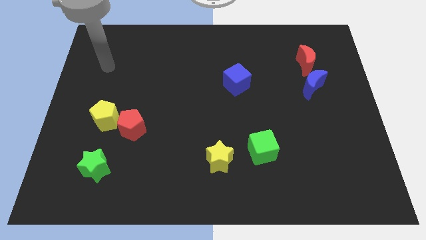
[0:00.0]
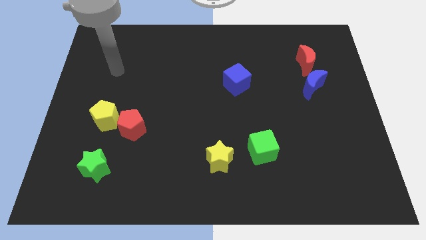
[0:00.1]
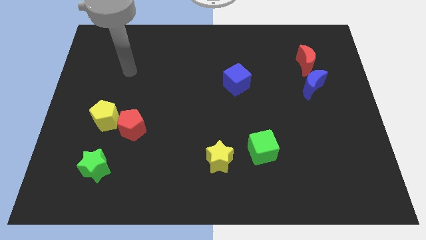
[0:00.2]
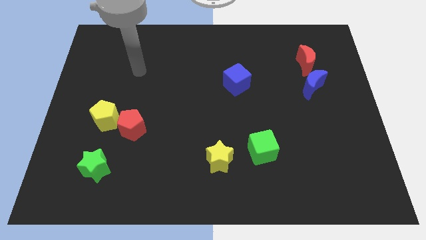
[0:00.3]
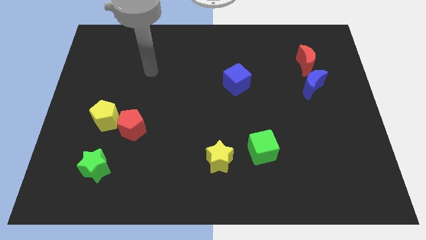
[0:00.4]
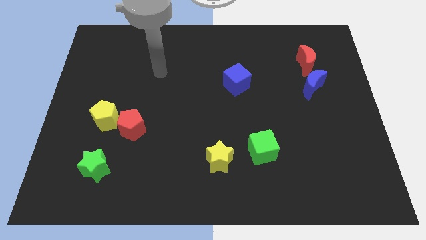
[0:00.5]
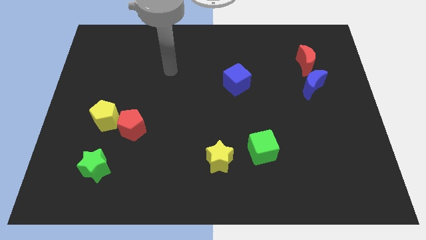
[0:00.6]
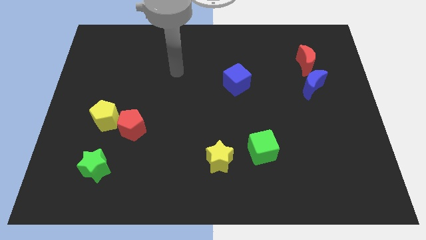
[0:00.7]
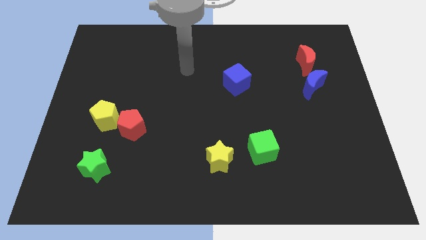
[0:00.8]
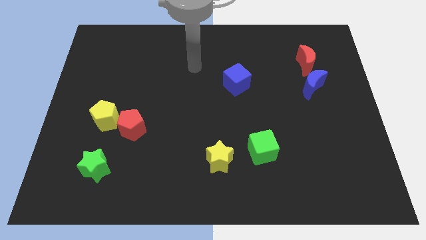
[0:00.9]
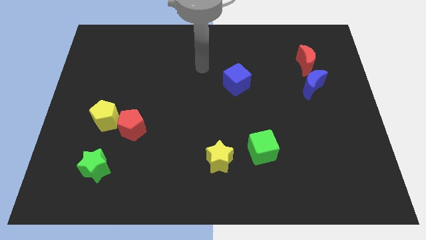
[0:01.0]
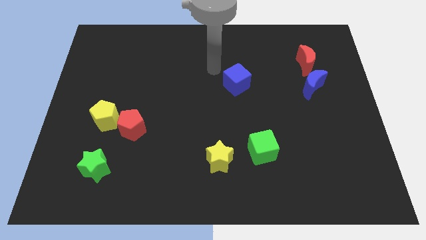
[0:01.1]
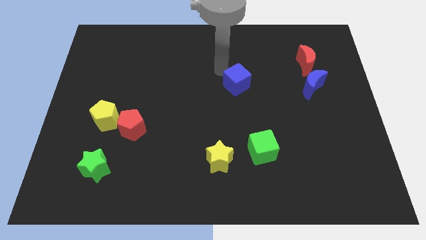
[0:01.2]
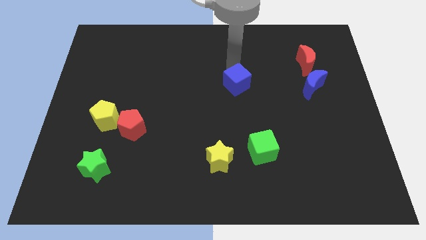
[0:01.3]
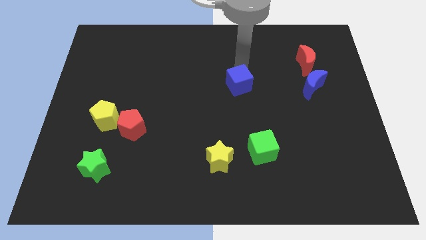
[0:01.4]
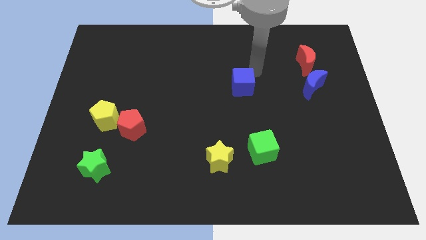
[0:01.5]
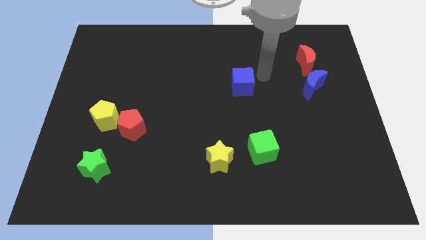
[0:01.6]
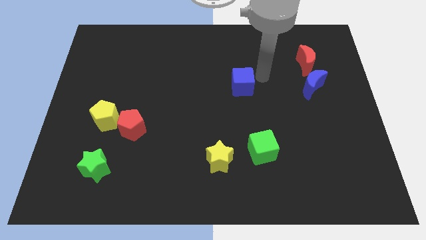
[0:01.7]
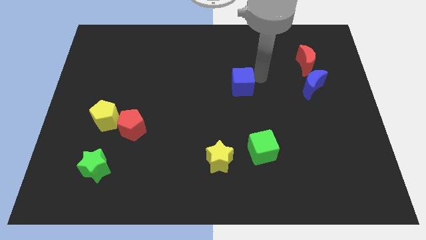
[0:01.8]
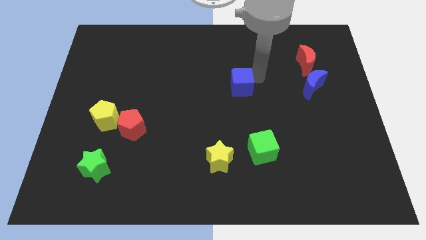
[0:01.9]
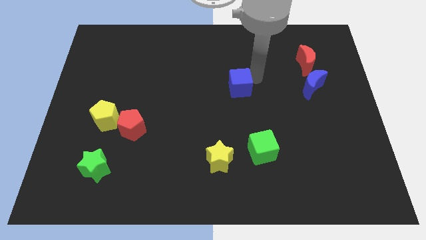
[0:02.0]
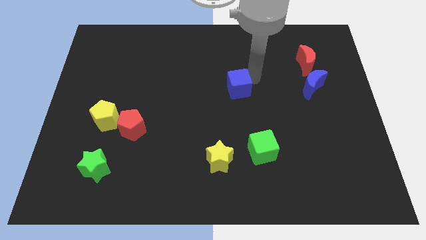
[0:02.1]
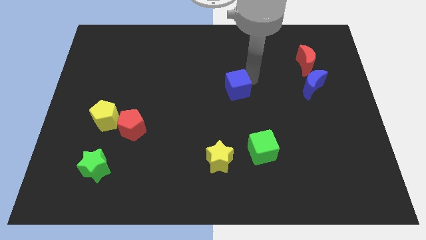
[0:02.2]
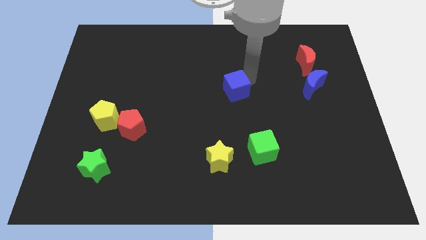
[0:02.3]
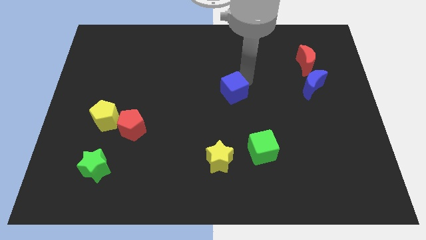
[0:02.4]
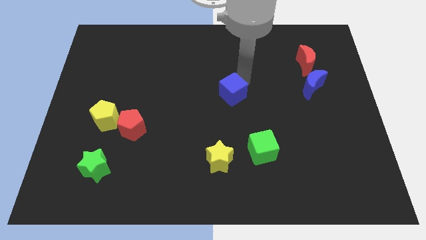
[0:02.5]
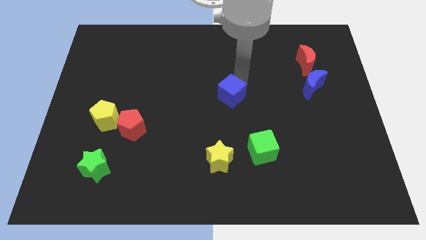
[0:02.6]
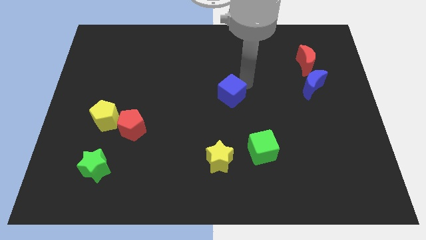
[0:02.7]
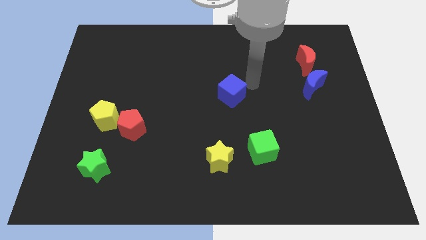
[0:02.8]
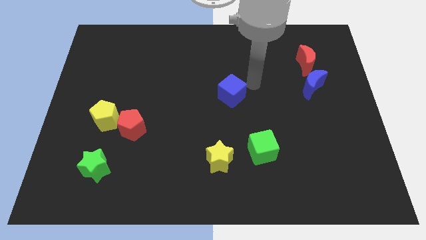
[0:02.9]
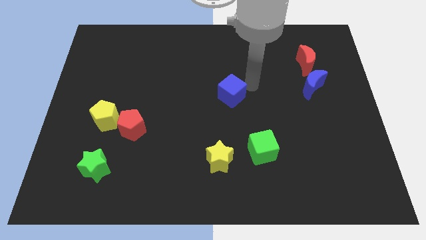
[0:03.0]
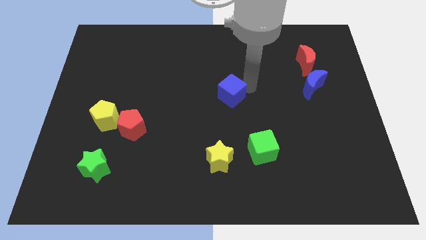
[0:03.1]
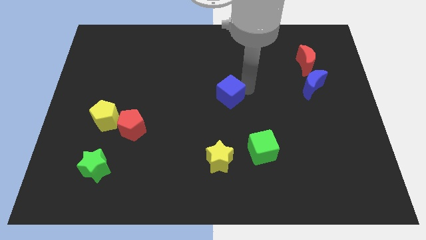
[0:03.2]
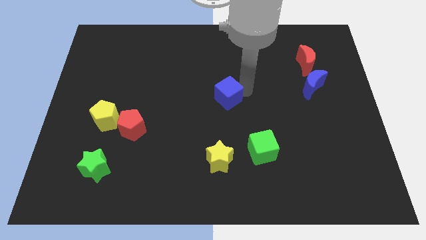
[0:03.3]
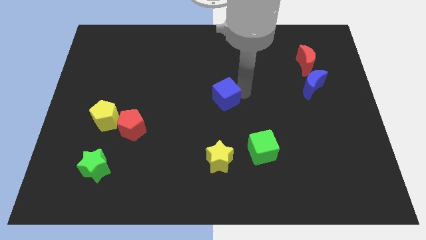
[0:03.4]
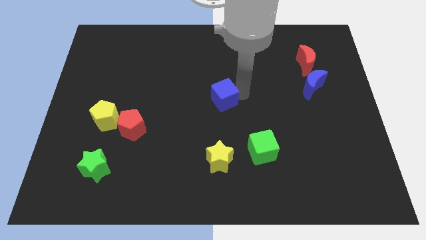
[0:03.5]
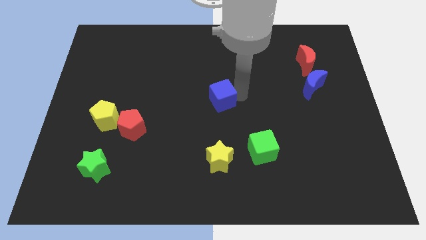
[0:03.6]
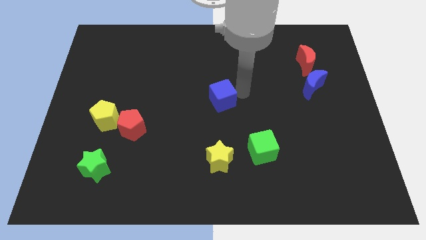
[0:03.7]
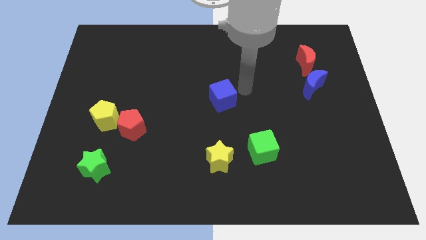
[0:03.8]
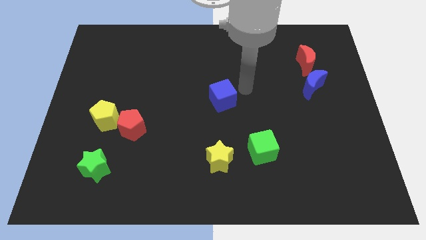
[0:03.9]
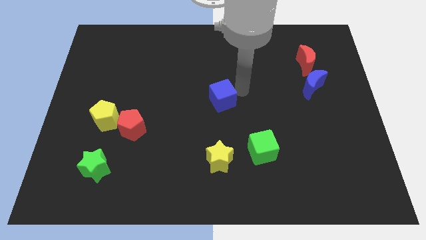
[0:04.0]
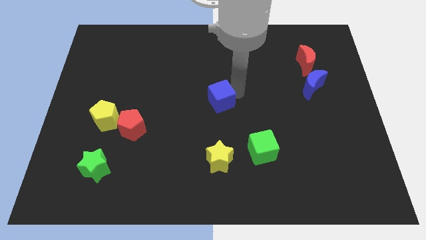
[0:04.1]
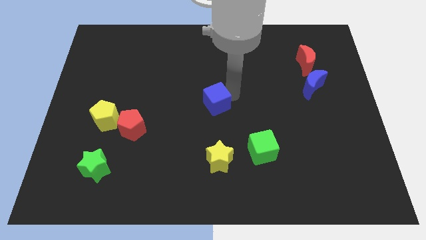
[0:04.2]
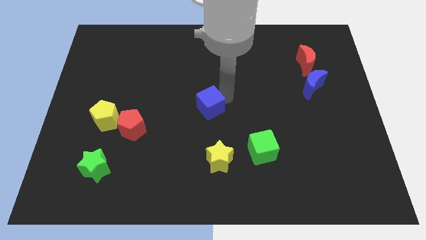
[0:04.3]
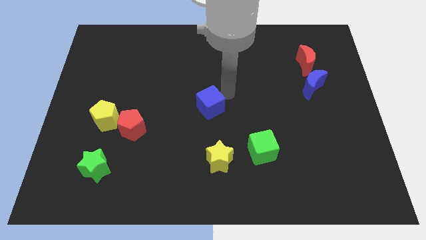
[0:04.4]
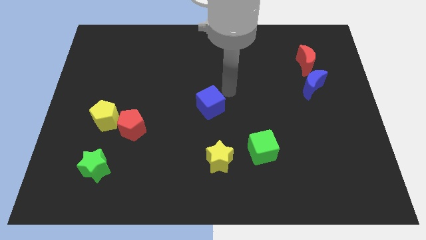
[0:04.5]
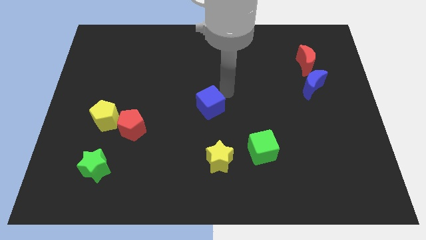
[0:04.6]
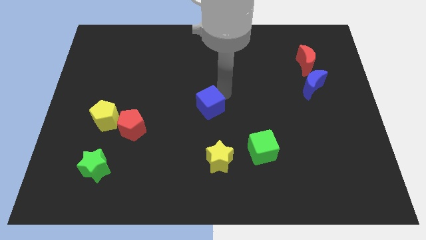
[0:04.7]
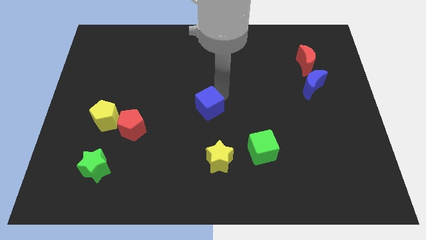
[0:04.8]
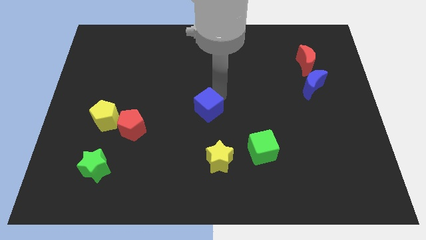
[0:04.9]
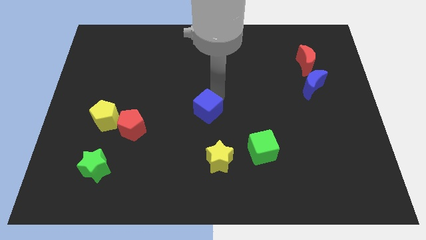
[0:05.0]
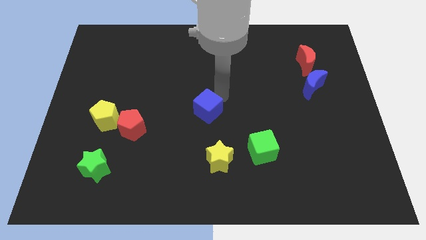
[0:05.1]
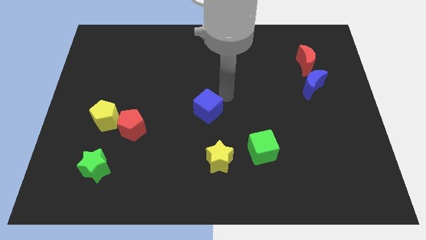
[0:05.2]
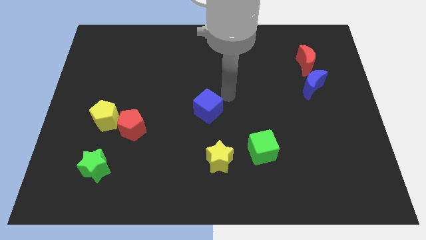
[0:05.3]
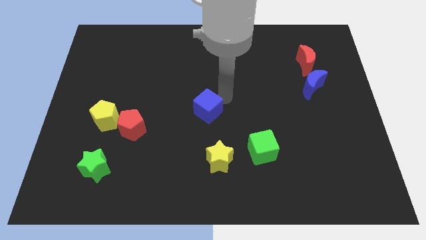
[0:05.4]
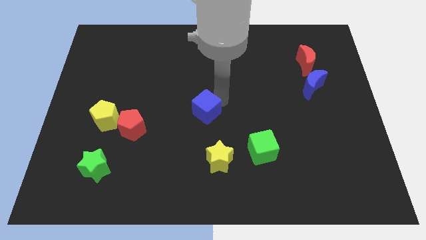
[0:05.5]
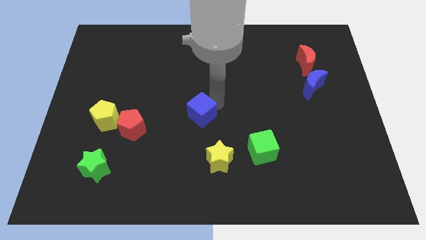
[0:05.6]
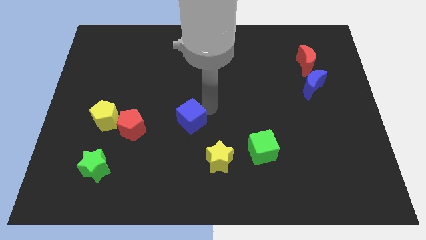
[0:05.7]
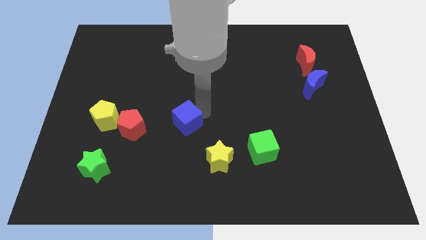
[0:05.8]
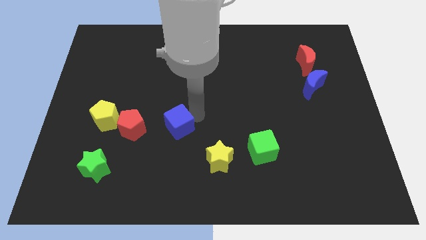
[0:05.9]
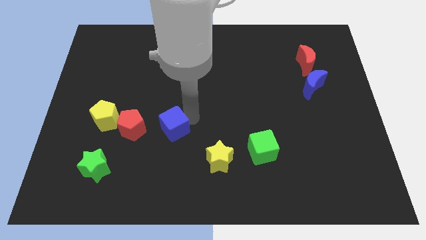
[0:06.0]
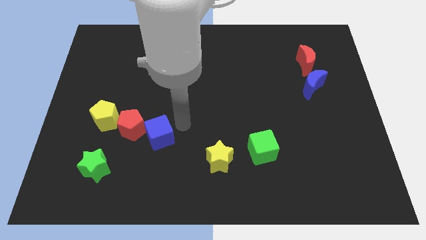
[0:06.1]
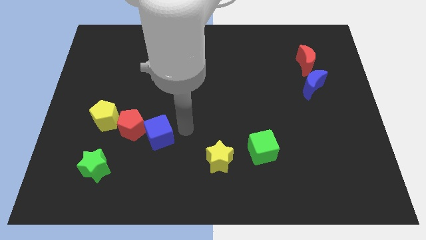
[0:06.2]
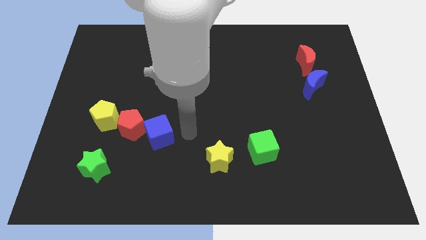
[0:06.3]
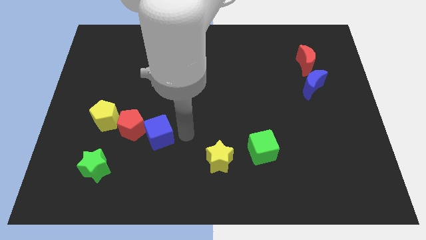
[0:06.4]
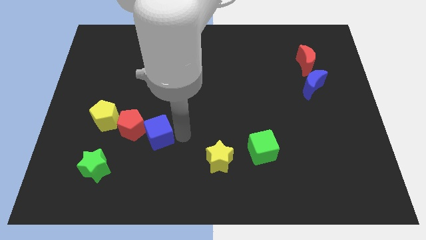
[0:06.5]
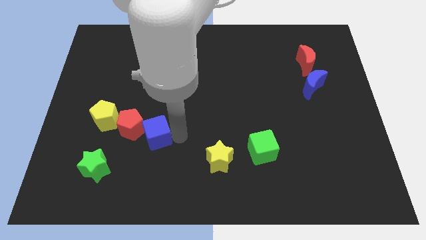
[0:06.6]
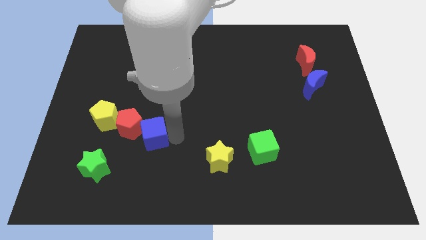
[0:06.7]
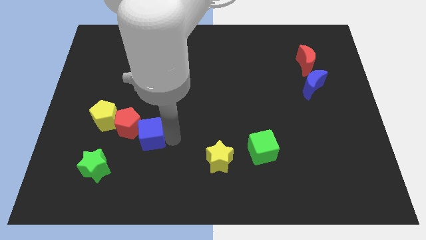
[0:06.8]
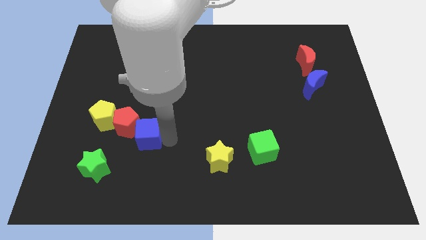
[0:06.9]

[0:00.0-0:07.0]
push the blue cube diagonally down and to the right of the yellow pentagon
